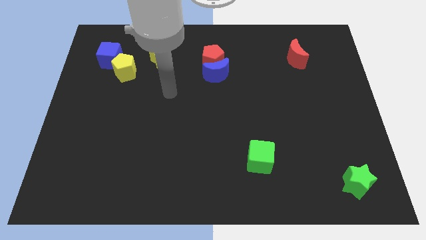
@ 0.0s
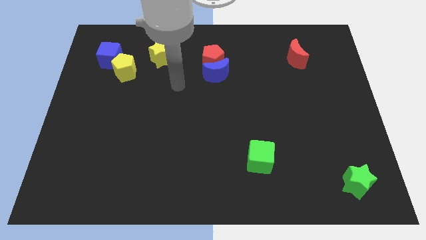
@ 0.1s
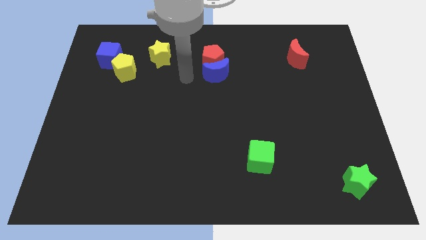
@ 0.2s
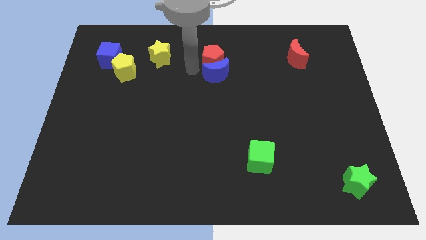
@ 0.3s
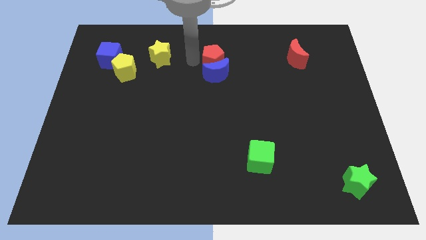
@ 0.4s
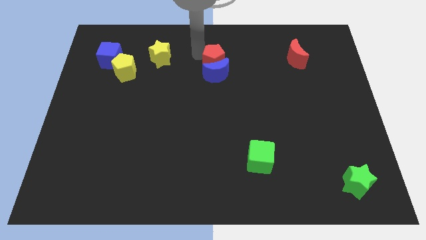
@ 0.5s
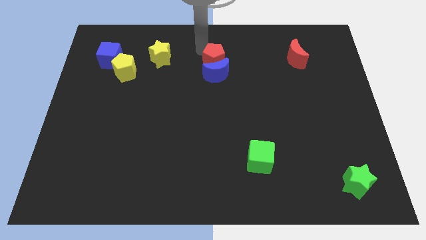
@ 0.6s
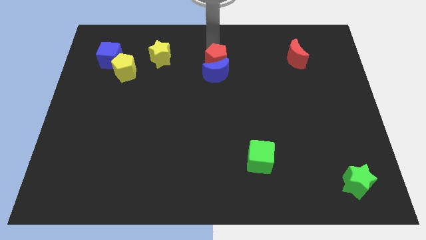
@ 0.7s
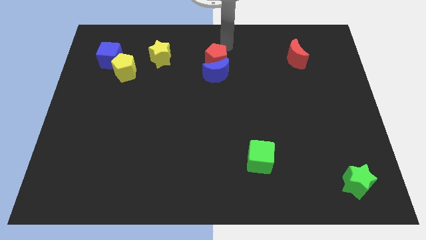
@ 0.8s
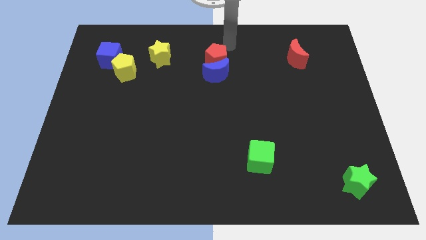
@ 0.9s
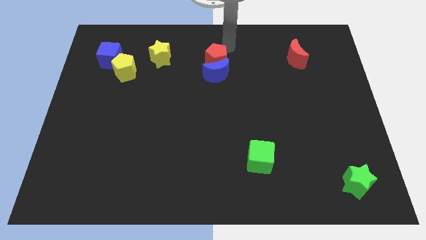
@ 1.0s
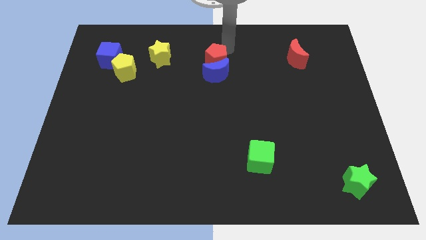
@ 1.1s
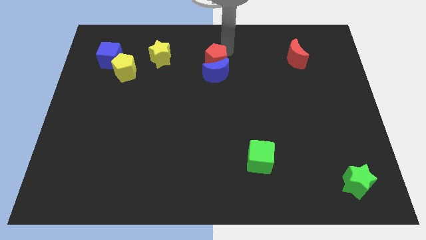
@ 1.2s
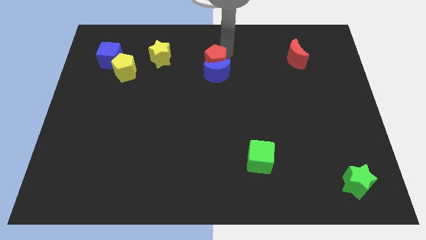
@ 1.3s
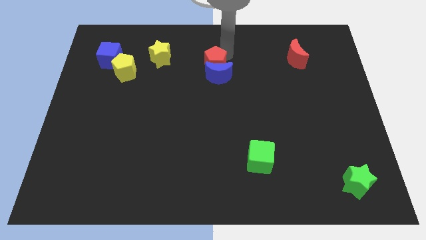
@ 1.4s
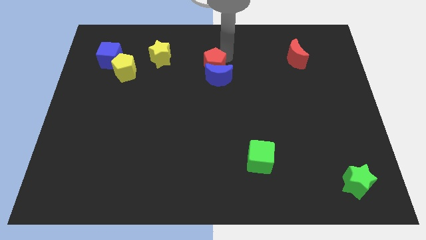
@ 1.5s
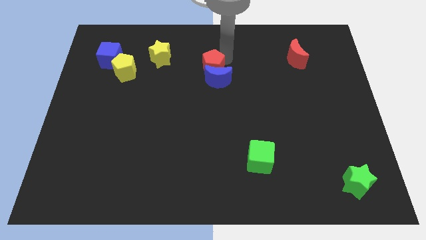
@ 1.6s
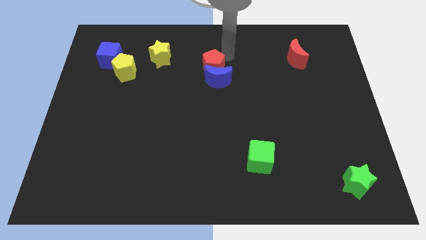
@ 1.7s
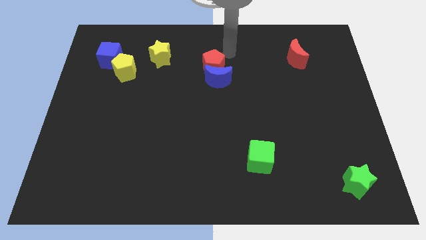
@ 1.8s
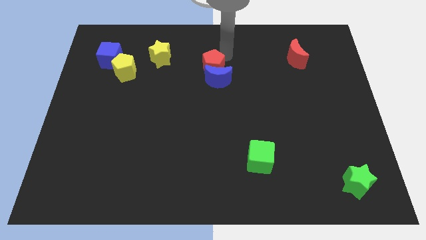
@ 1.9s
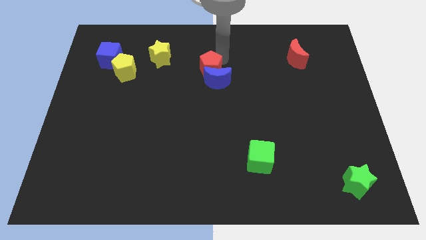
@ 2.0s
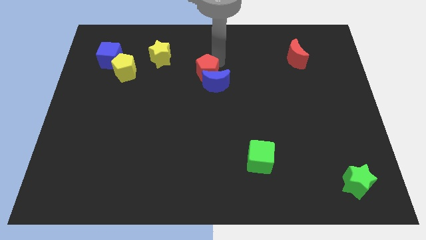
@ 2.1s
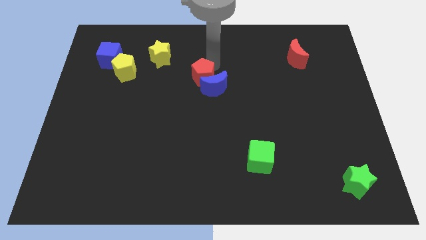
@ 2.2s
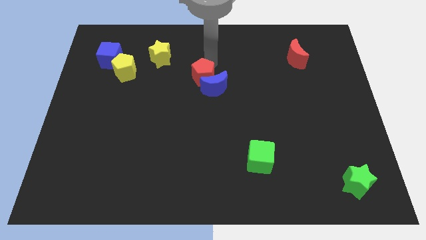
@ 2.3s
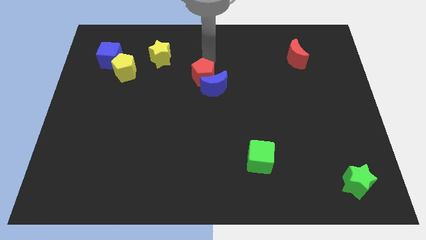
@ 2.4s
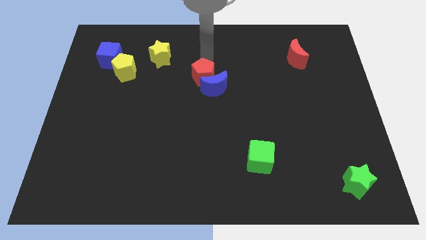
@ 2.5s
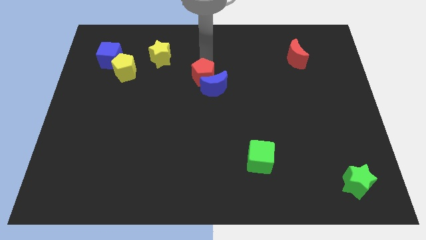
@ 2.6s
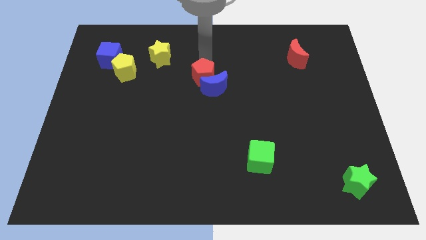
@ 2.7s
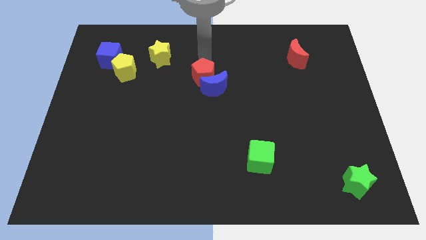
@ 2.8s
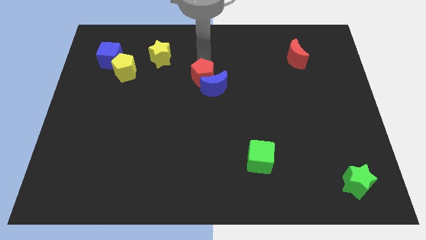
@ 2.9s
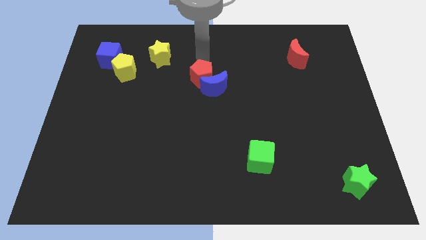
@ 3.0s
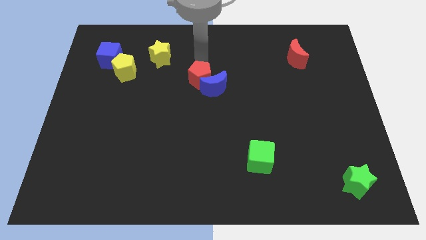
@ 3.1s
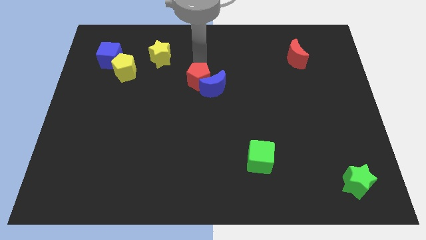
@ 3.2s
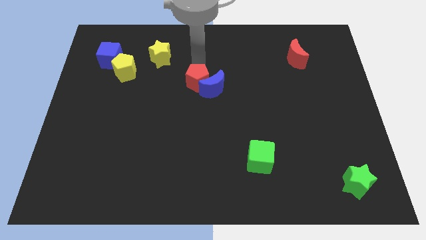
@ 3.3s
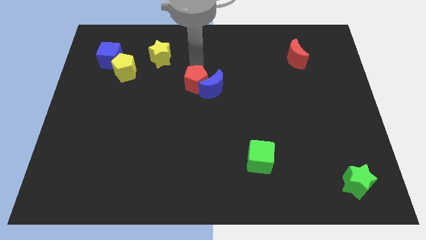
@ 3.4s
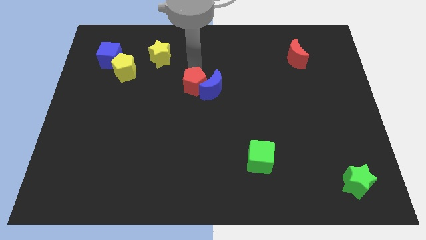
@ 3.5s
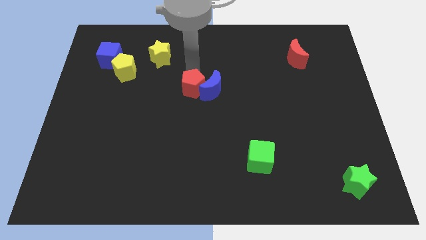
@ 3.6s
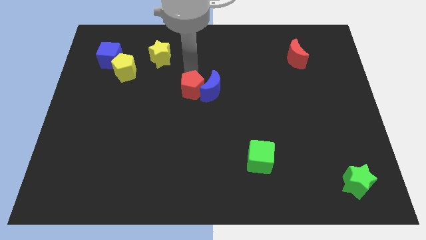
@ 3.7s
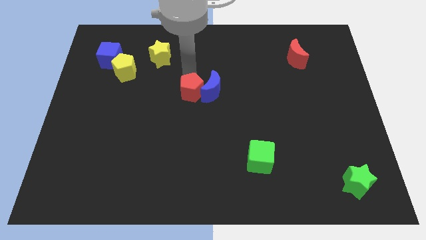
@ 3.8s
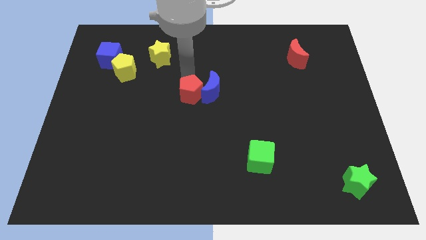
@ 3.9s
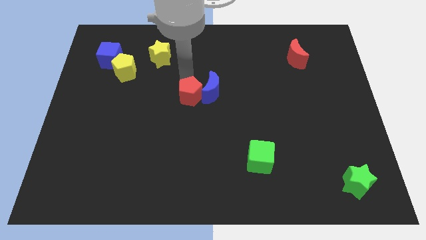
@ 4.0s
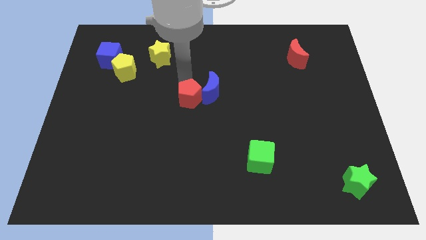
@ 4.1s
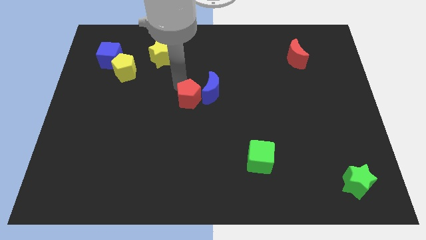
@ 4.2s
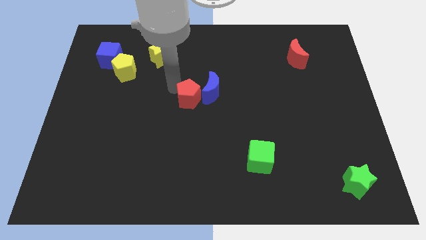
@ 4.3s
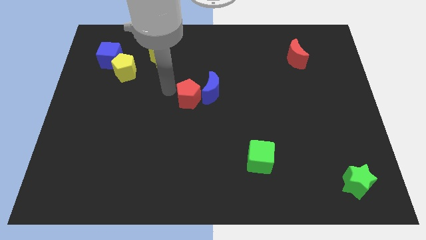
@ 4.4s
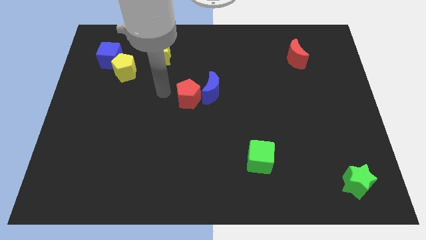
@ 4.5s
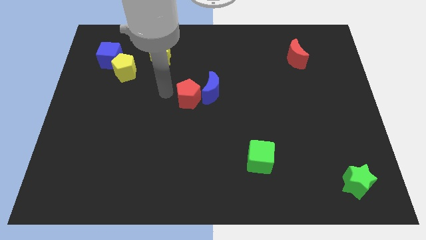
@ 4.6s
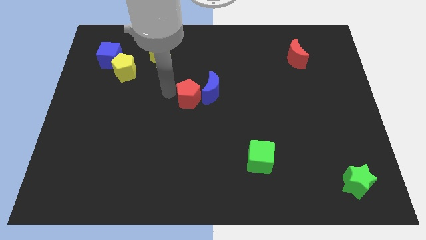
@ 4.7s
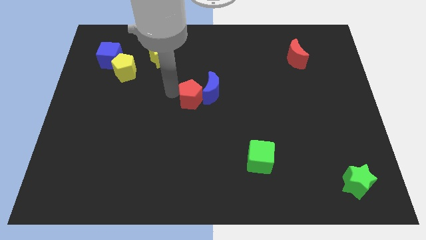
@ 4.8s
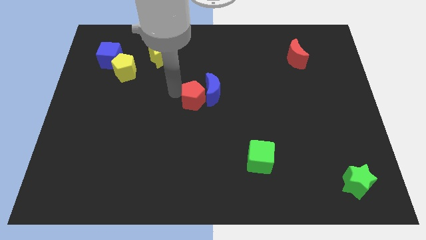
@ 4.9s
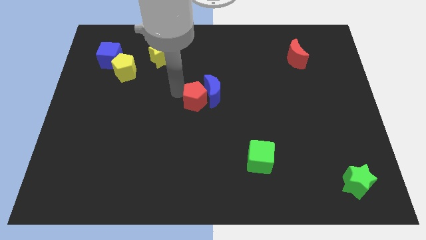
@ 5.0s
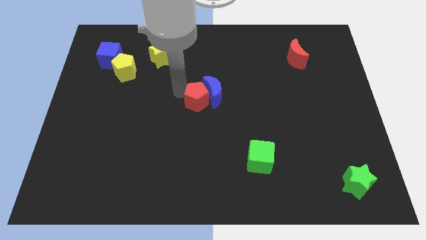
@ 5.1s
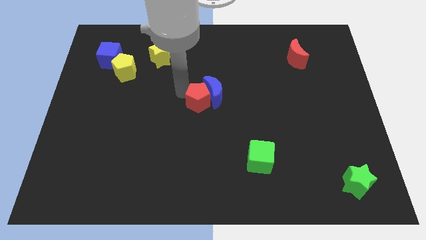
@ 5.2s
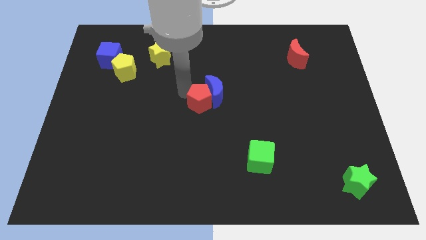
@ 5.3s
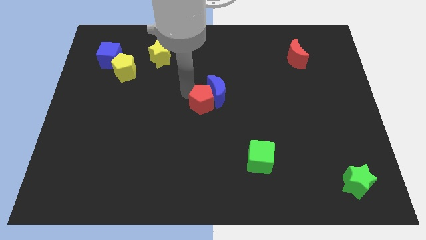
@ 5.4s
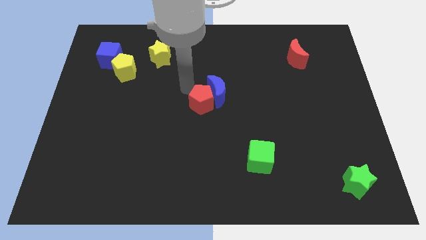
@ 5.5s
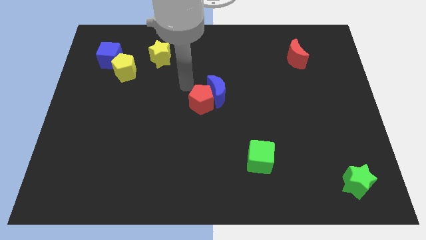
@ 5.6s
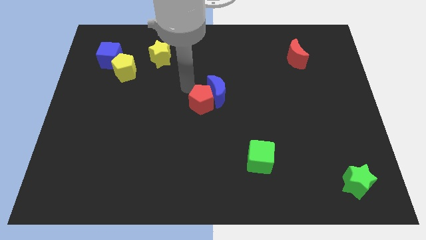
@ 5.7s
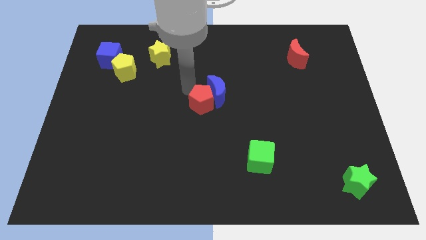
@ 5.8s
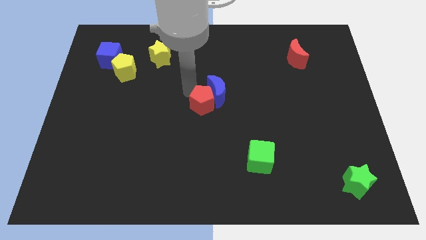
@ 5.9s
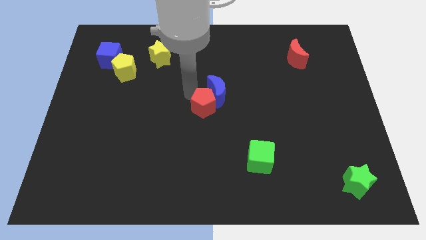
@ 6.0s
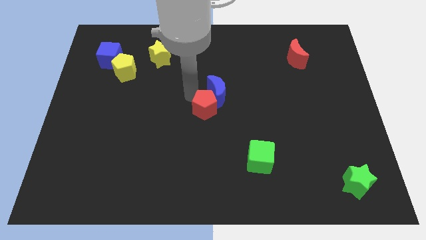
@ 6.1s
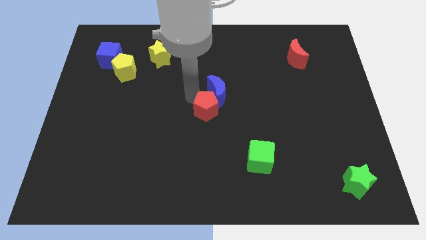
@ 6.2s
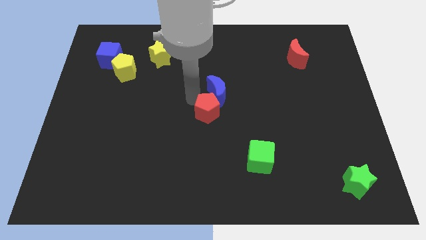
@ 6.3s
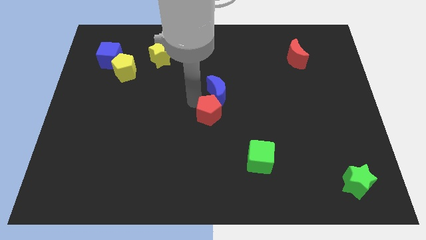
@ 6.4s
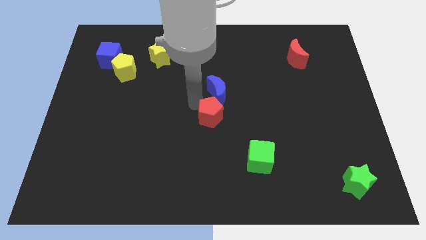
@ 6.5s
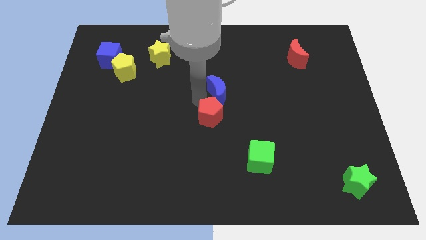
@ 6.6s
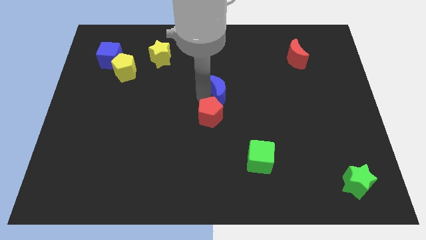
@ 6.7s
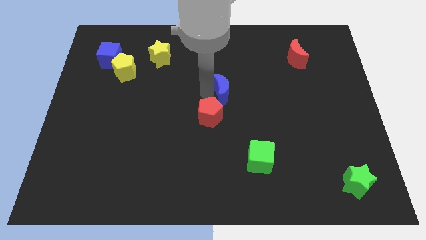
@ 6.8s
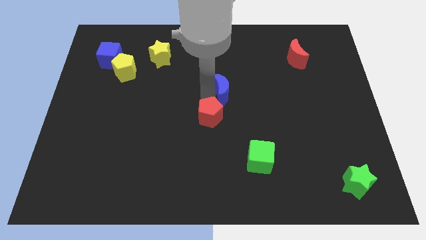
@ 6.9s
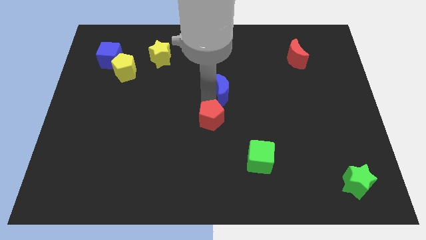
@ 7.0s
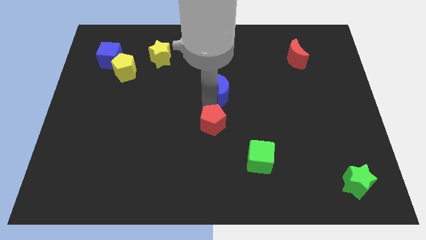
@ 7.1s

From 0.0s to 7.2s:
push the red pentagon down

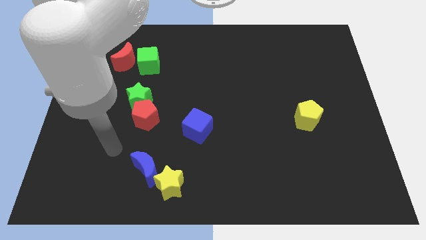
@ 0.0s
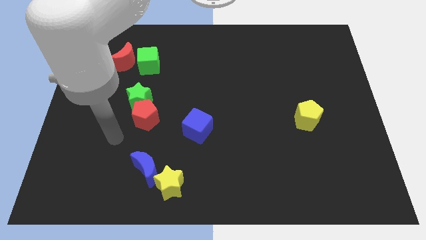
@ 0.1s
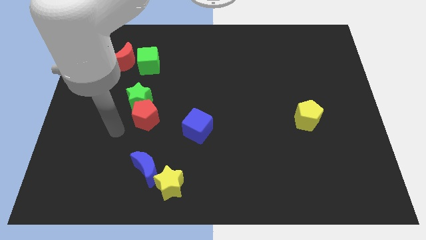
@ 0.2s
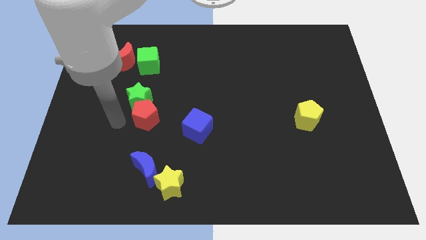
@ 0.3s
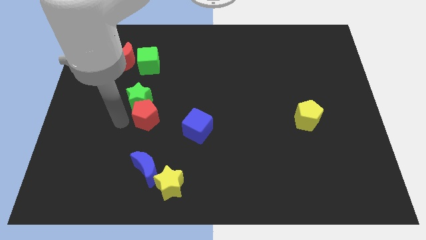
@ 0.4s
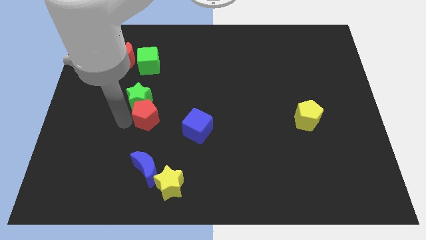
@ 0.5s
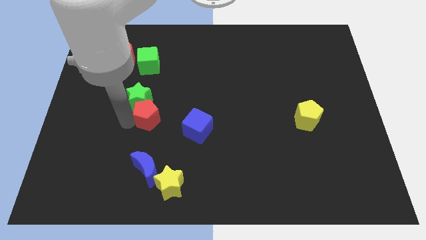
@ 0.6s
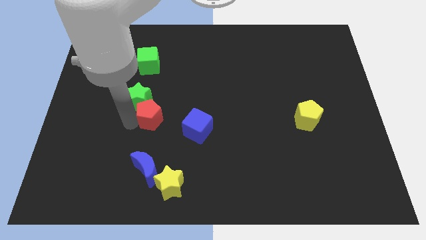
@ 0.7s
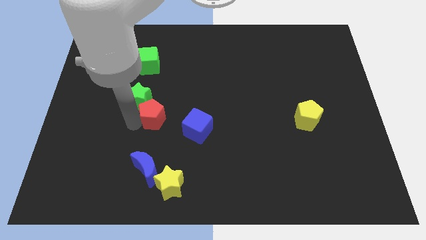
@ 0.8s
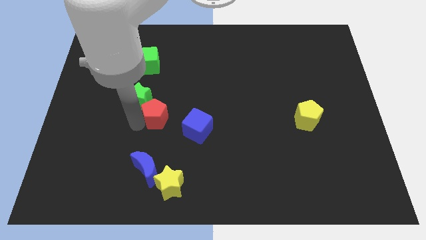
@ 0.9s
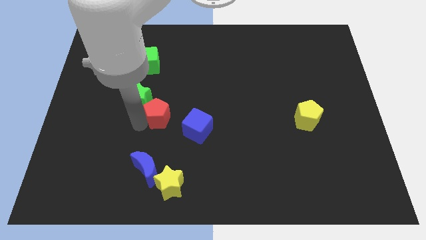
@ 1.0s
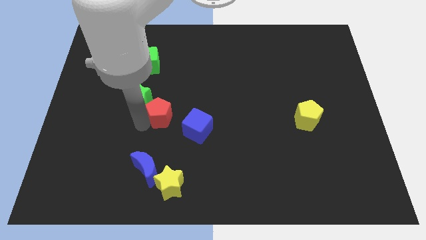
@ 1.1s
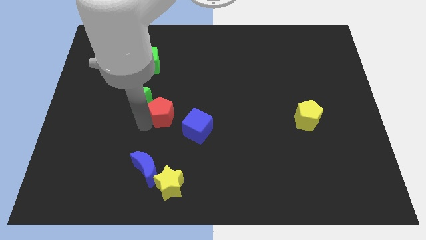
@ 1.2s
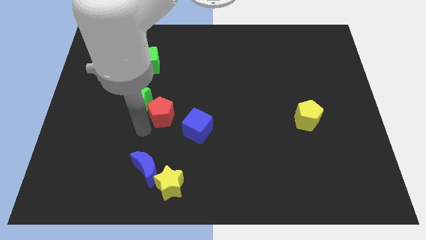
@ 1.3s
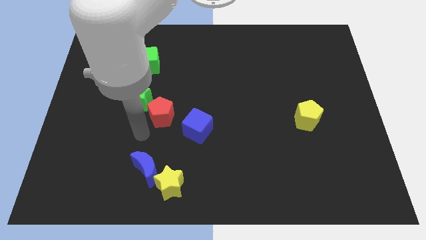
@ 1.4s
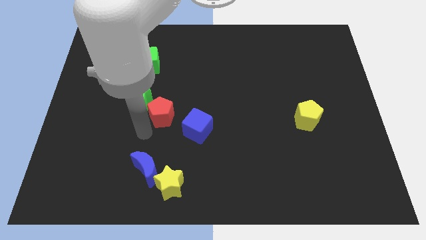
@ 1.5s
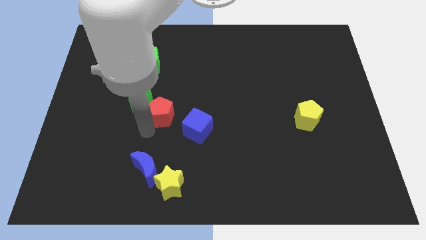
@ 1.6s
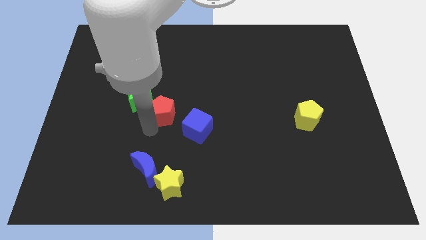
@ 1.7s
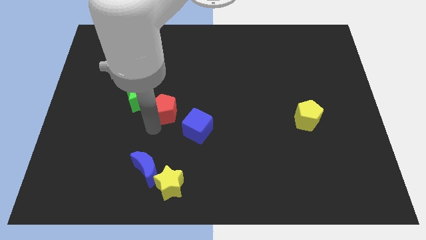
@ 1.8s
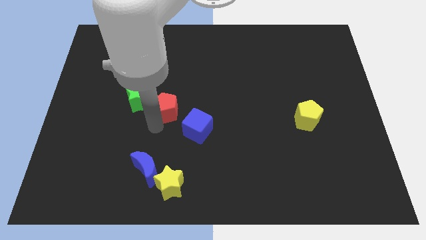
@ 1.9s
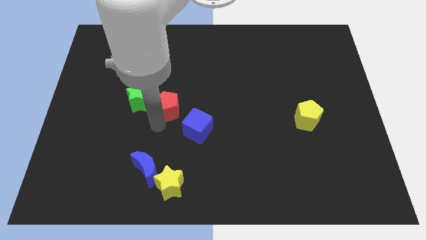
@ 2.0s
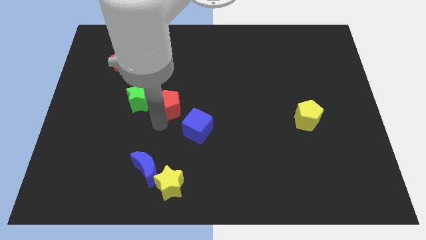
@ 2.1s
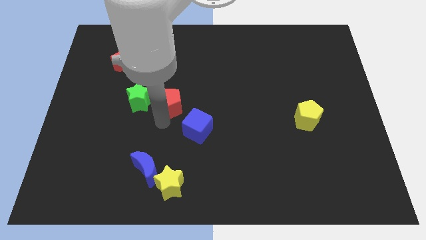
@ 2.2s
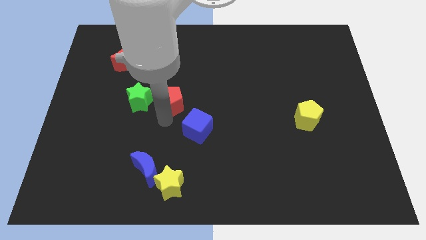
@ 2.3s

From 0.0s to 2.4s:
push the red pentagon diagonally upwards and to the right a little bit
